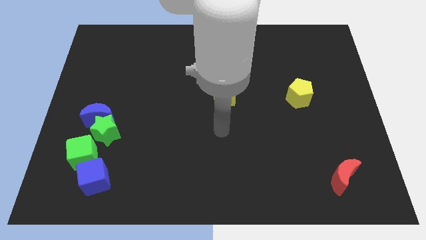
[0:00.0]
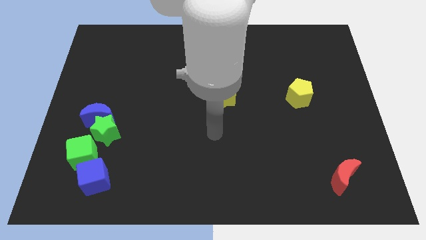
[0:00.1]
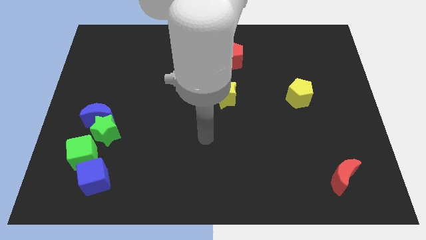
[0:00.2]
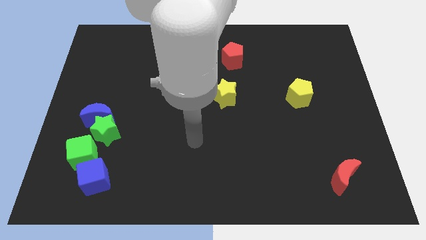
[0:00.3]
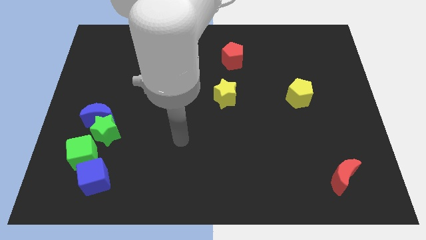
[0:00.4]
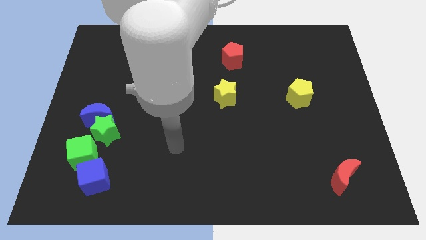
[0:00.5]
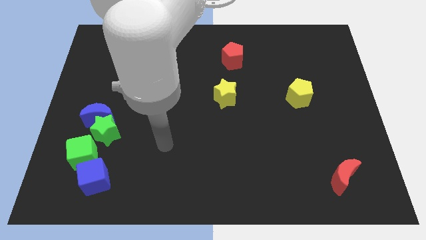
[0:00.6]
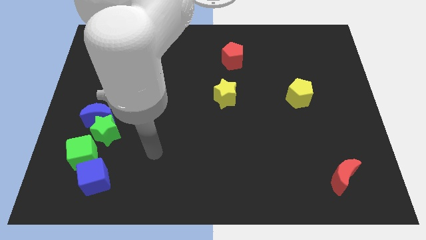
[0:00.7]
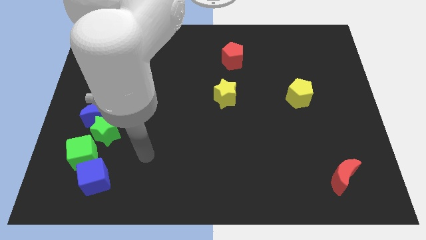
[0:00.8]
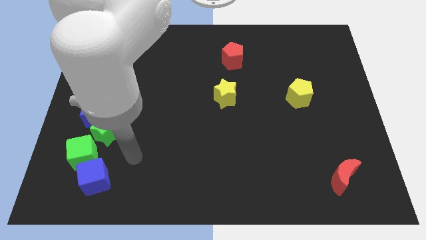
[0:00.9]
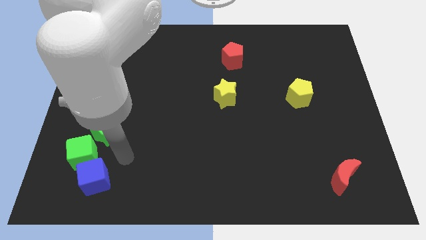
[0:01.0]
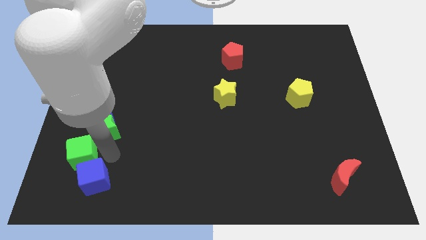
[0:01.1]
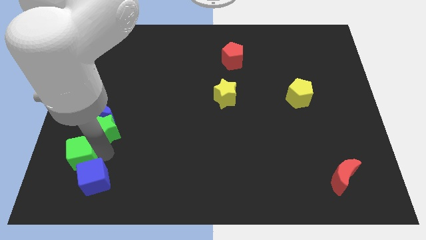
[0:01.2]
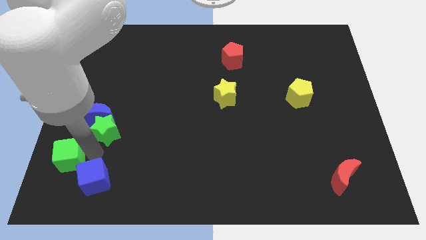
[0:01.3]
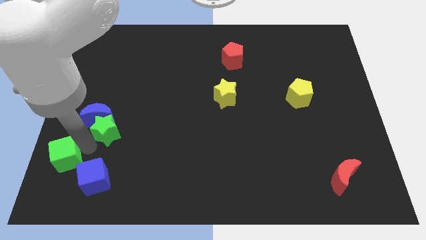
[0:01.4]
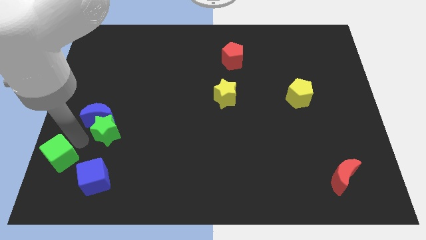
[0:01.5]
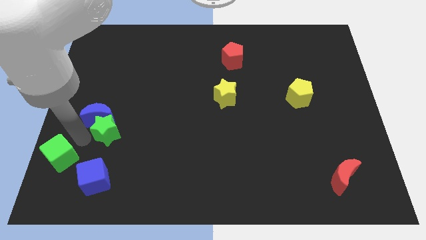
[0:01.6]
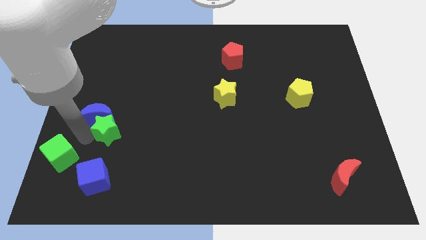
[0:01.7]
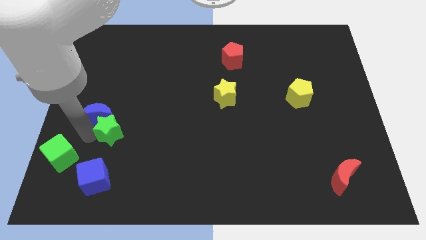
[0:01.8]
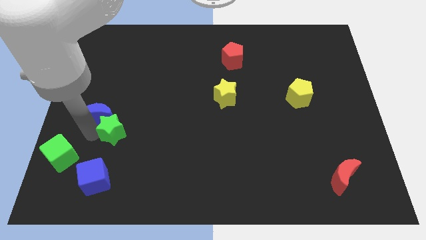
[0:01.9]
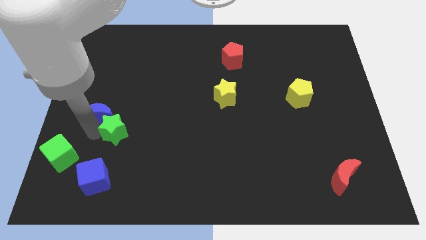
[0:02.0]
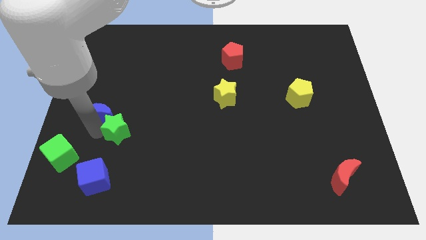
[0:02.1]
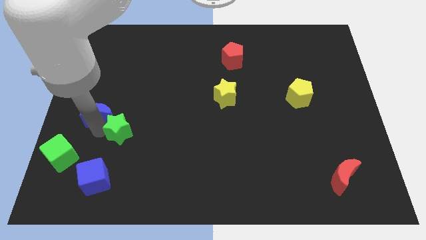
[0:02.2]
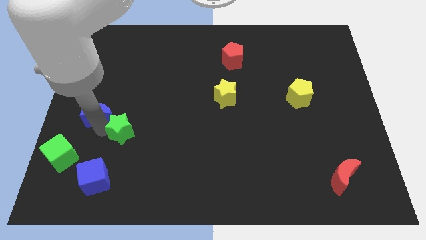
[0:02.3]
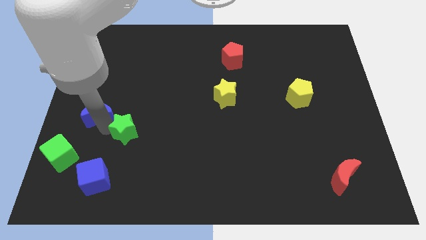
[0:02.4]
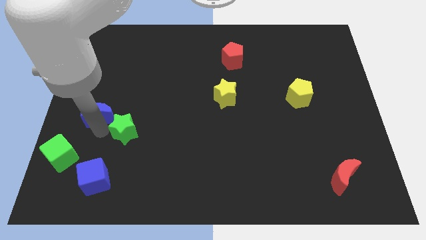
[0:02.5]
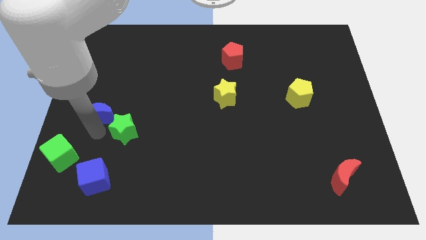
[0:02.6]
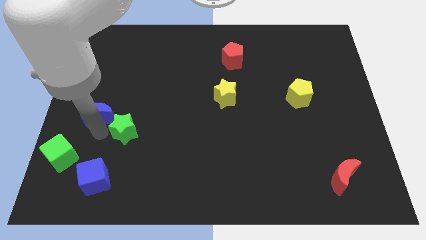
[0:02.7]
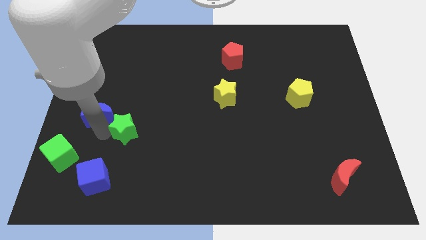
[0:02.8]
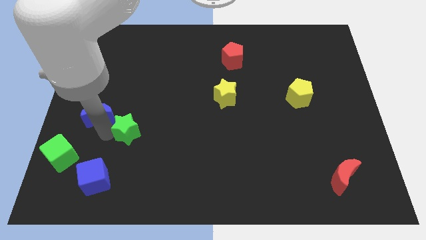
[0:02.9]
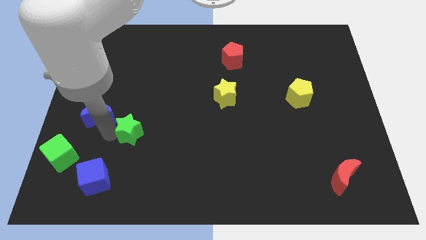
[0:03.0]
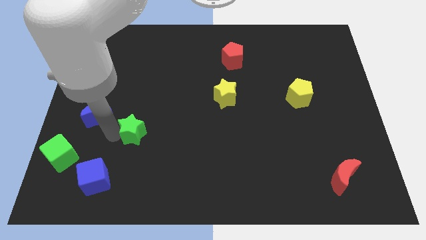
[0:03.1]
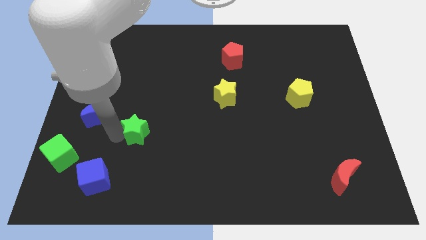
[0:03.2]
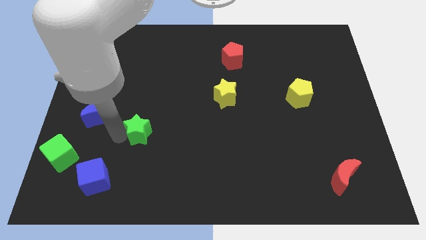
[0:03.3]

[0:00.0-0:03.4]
move the green star to the right slightly

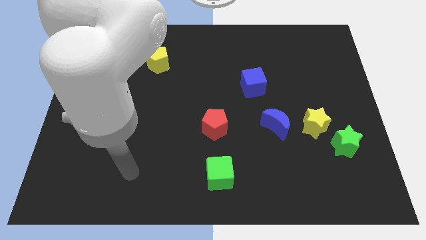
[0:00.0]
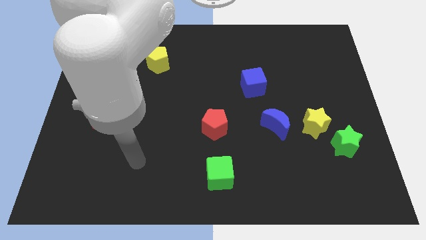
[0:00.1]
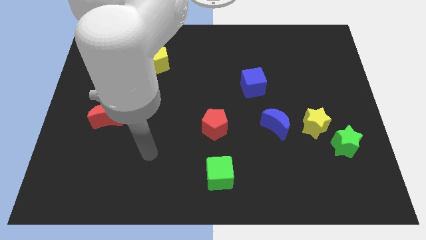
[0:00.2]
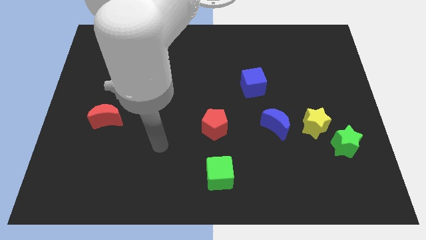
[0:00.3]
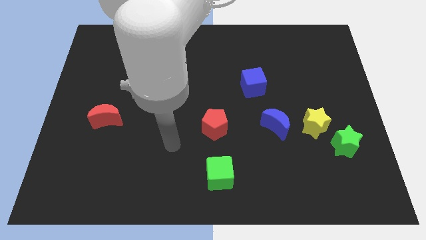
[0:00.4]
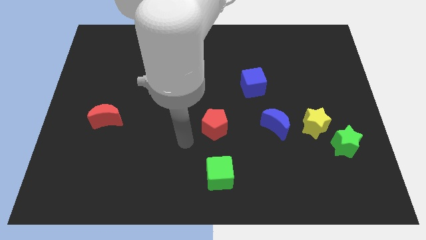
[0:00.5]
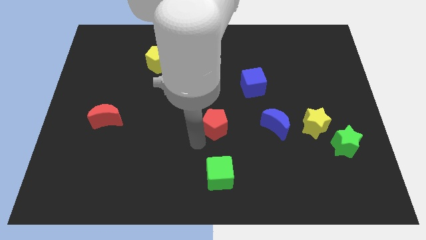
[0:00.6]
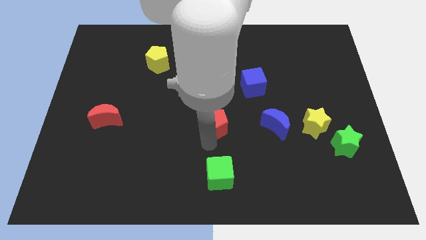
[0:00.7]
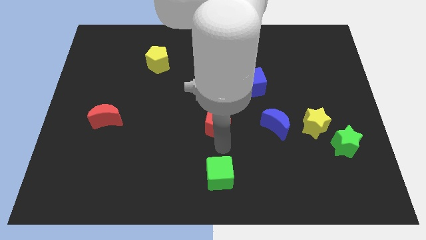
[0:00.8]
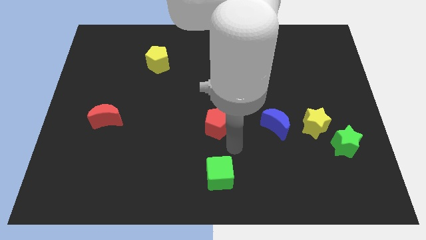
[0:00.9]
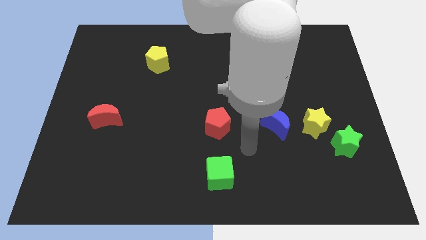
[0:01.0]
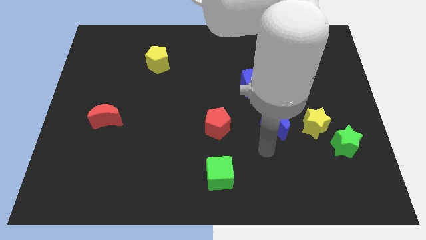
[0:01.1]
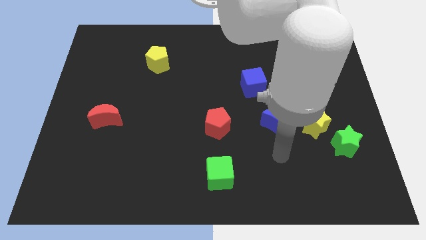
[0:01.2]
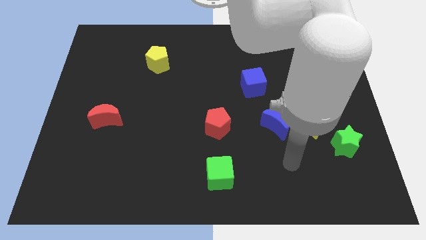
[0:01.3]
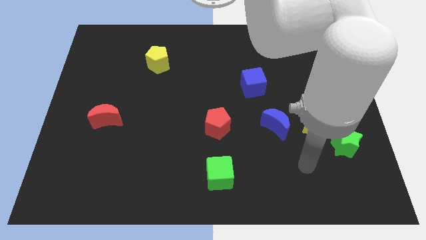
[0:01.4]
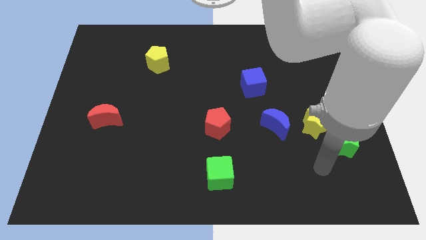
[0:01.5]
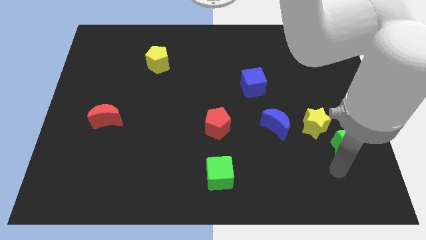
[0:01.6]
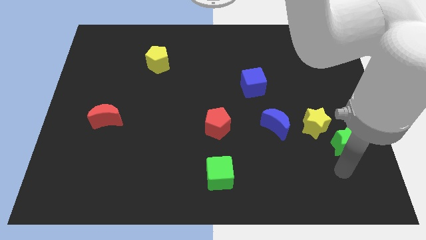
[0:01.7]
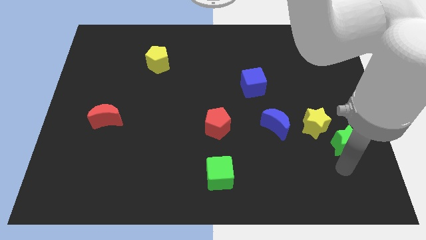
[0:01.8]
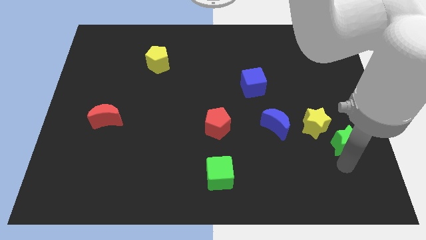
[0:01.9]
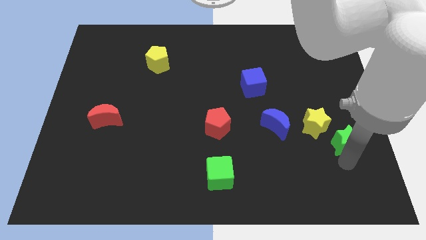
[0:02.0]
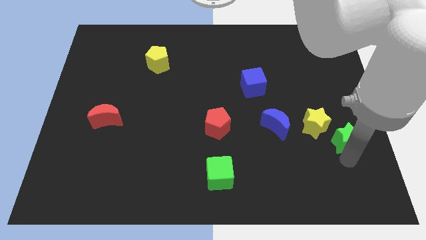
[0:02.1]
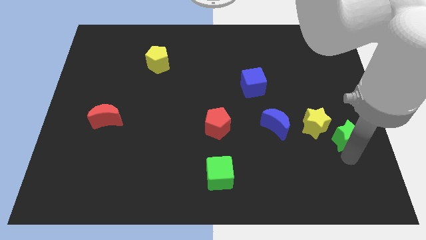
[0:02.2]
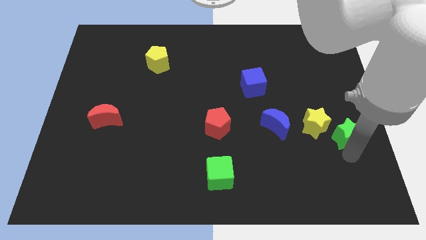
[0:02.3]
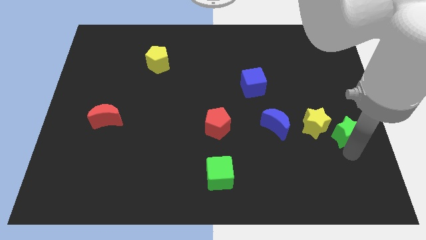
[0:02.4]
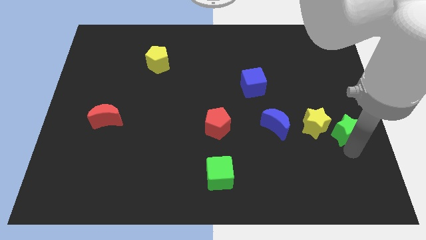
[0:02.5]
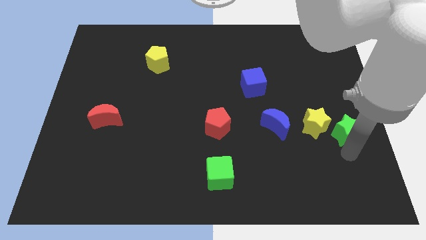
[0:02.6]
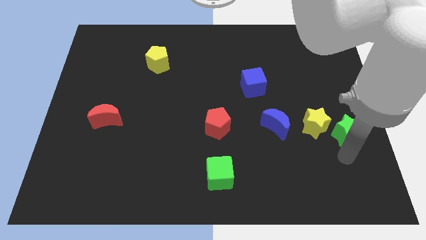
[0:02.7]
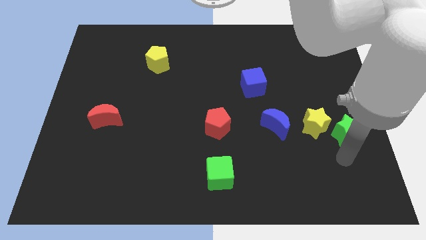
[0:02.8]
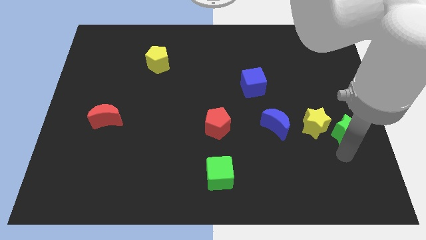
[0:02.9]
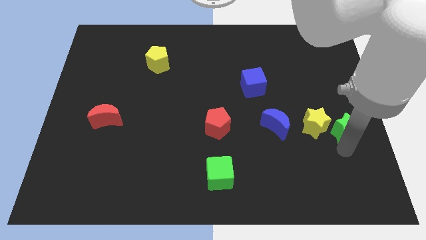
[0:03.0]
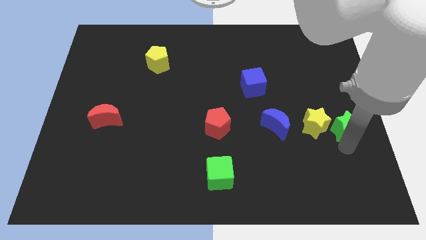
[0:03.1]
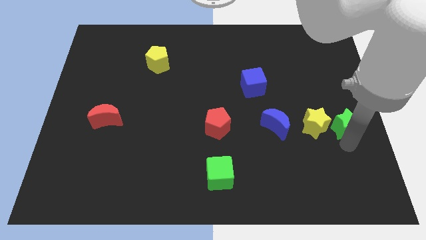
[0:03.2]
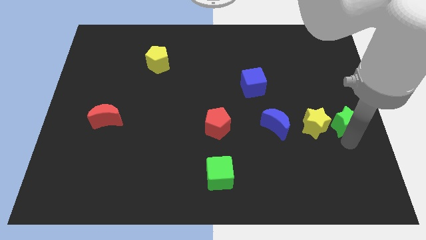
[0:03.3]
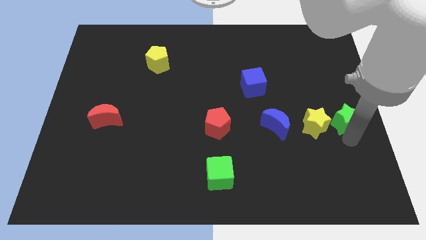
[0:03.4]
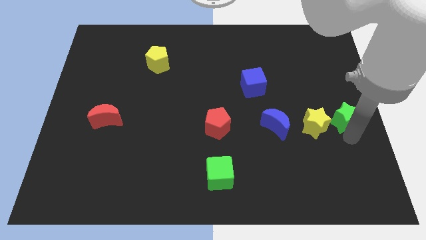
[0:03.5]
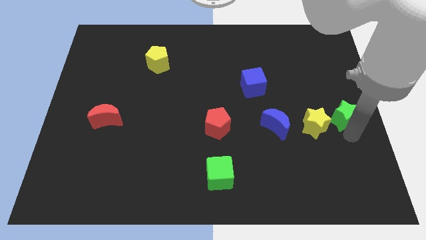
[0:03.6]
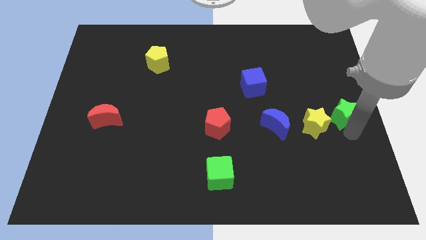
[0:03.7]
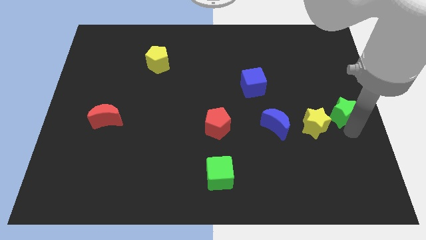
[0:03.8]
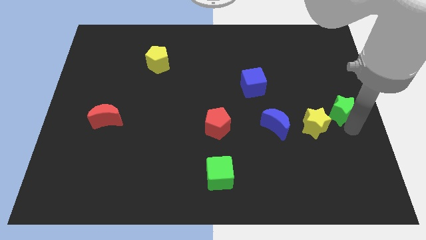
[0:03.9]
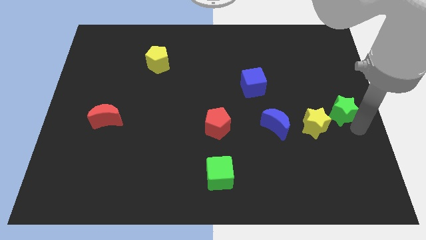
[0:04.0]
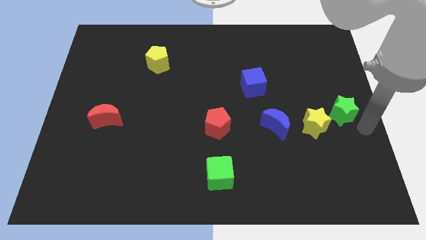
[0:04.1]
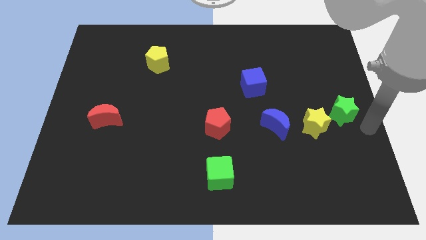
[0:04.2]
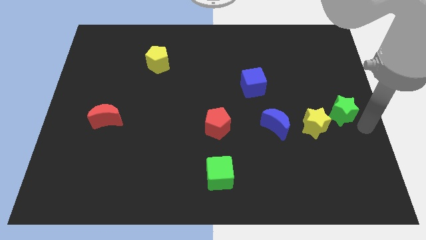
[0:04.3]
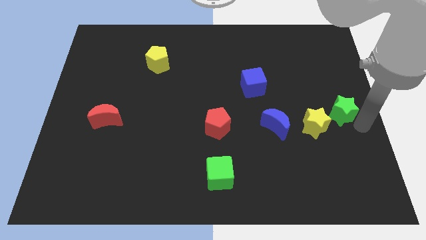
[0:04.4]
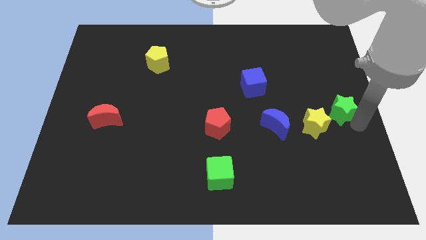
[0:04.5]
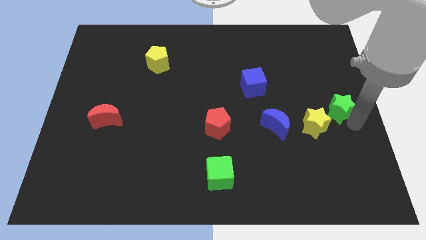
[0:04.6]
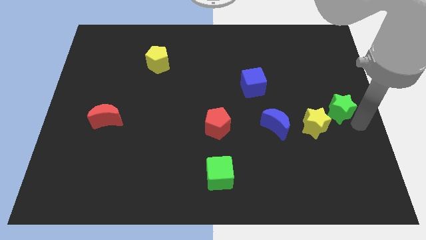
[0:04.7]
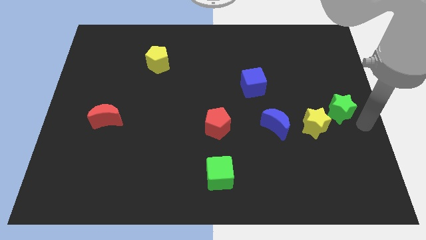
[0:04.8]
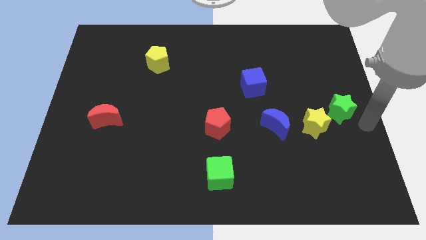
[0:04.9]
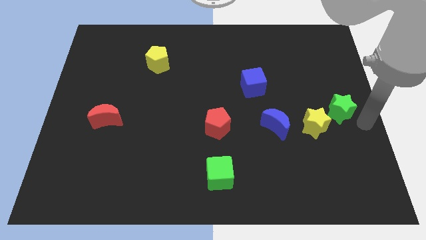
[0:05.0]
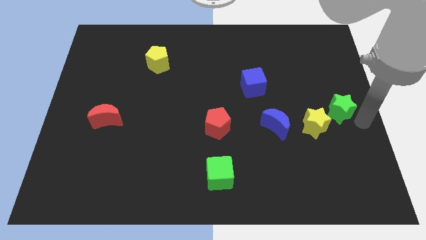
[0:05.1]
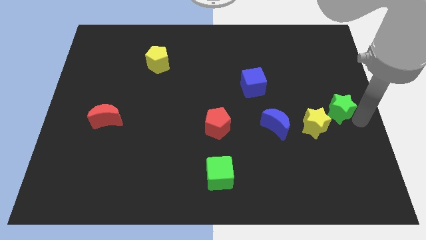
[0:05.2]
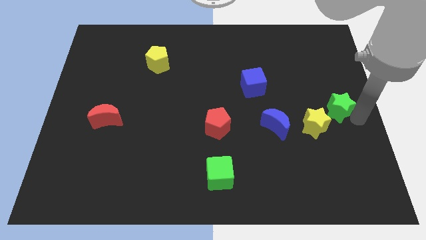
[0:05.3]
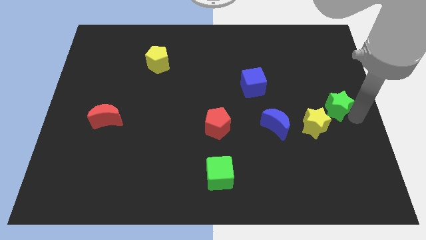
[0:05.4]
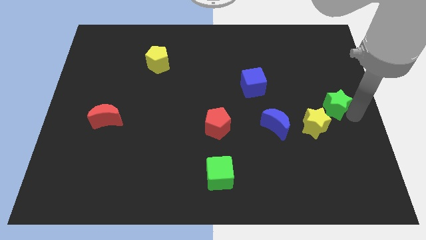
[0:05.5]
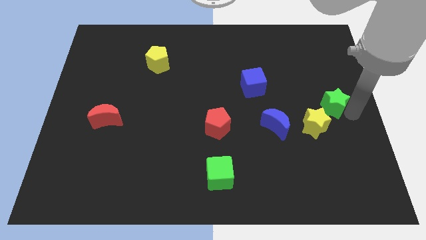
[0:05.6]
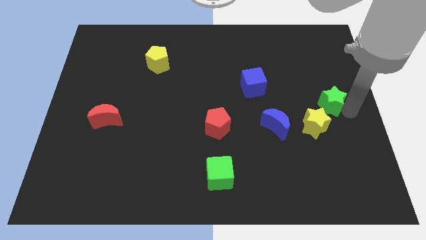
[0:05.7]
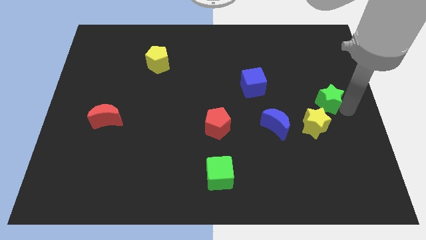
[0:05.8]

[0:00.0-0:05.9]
slide the green star upwards and then to the left a little bit
